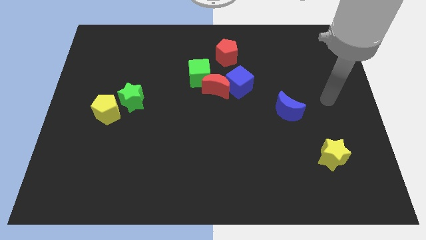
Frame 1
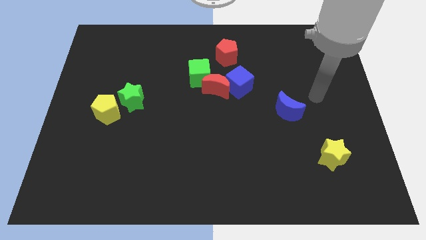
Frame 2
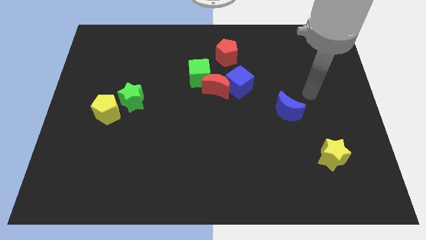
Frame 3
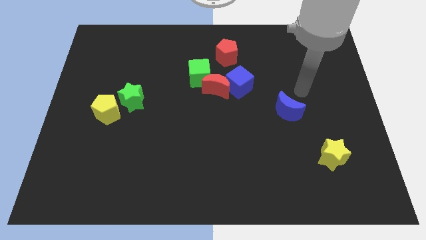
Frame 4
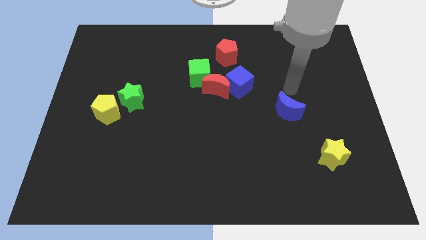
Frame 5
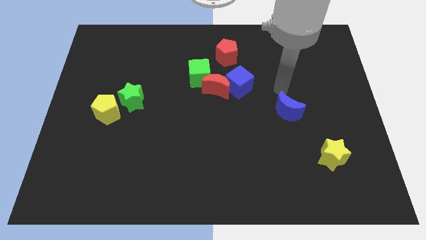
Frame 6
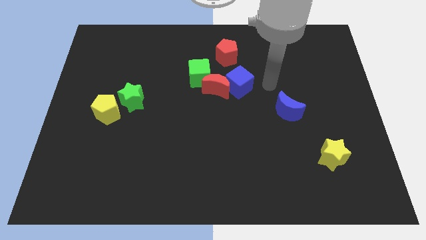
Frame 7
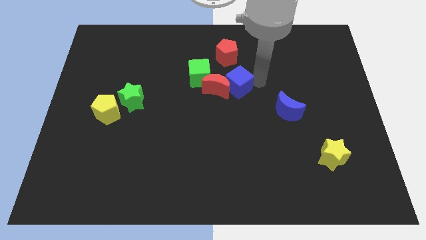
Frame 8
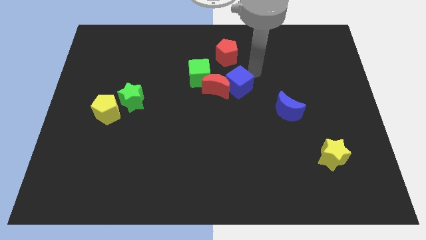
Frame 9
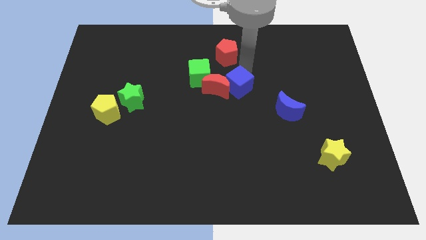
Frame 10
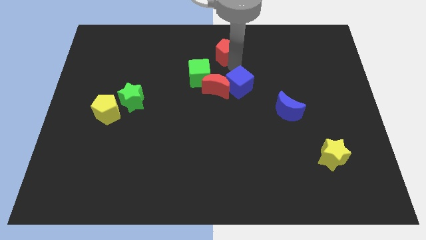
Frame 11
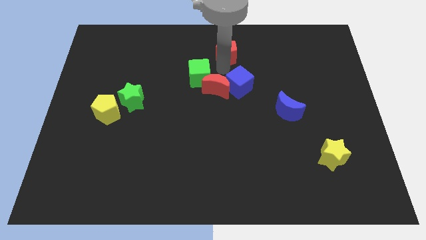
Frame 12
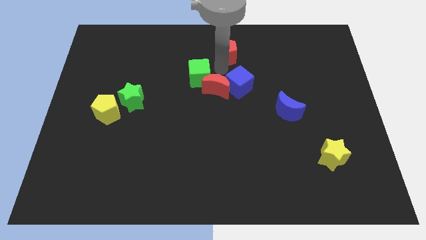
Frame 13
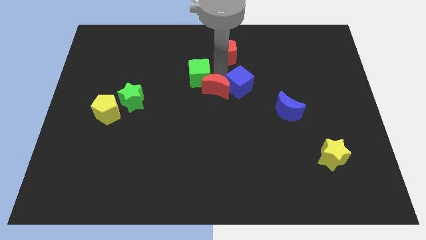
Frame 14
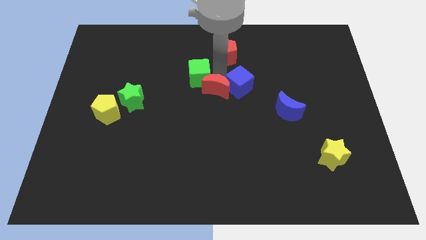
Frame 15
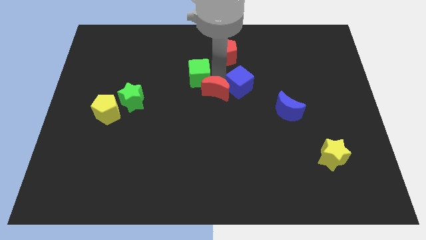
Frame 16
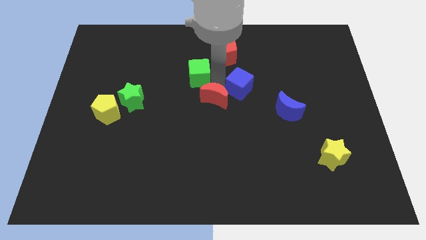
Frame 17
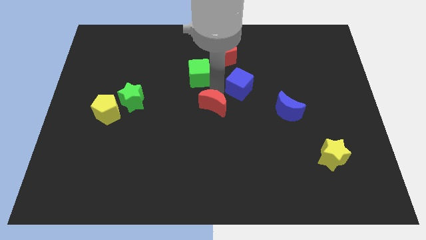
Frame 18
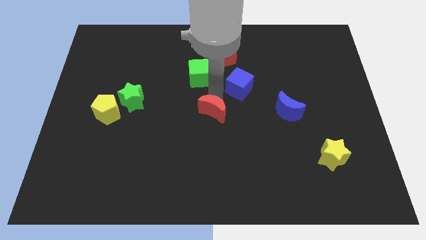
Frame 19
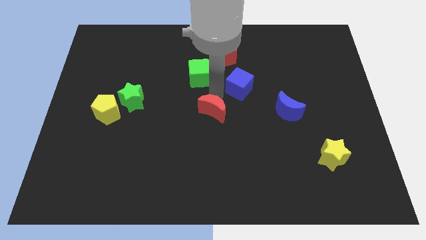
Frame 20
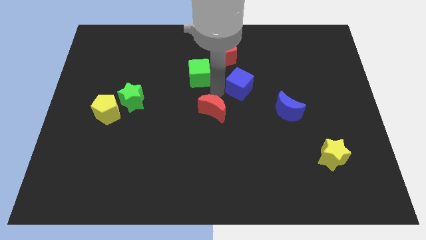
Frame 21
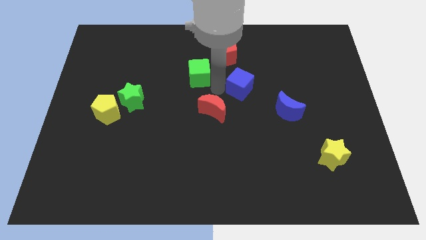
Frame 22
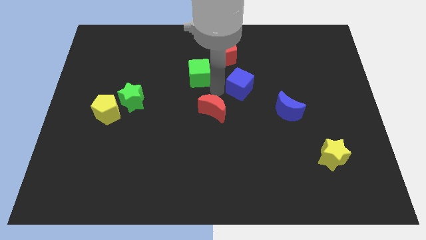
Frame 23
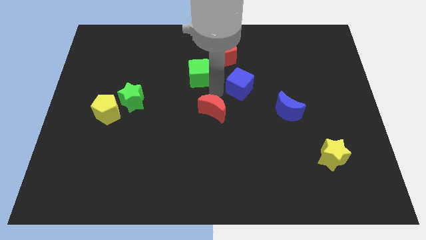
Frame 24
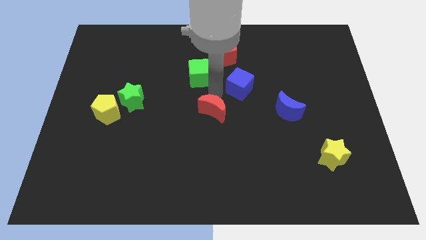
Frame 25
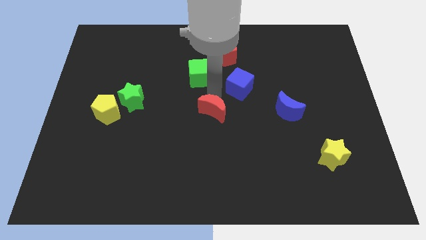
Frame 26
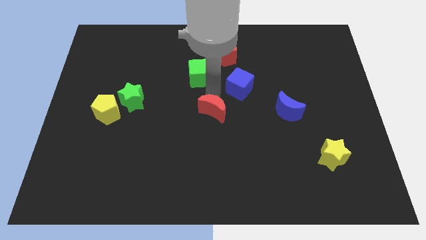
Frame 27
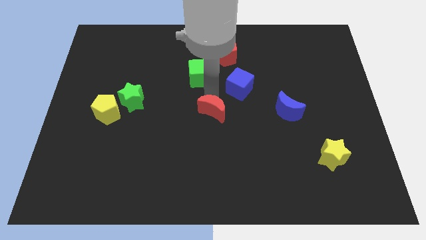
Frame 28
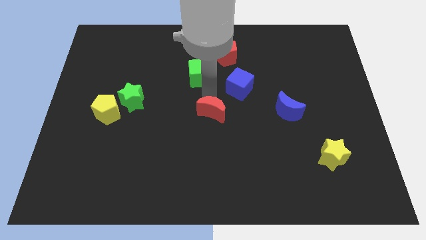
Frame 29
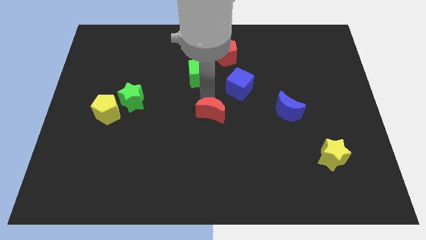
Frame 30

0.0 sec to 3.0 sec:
separate the red moon from the blue cube and green cube

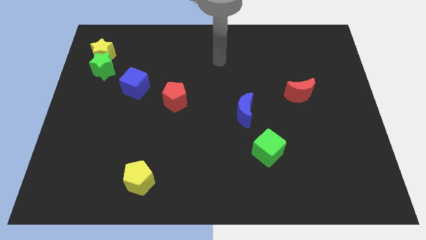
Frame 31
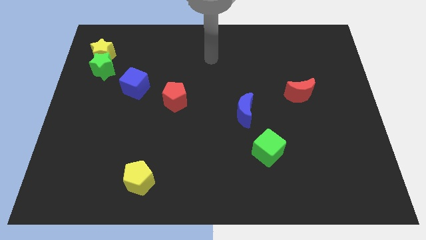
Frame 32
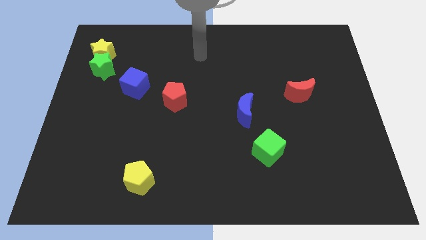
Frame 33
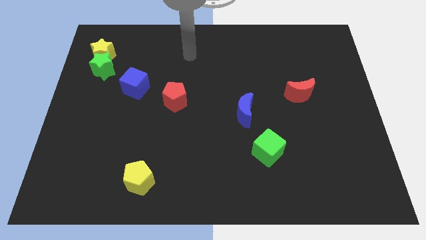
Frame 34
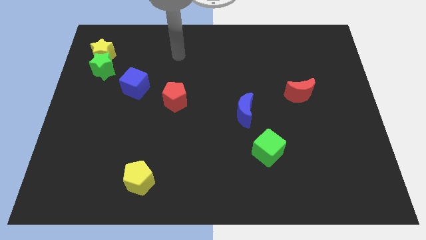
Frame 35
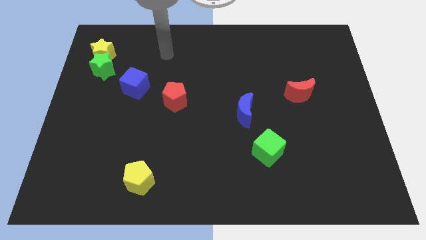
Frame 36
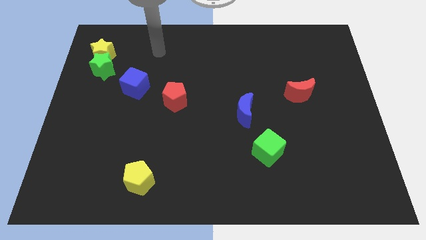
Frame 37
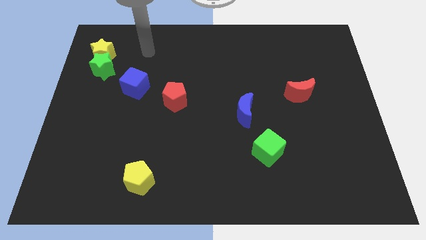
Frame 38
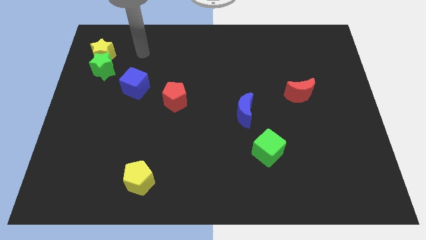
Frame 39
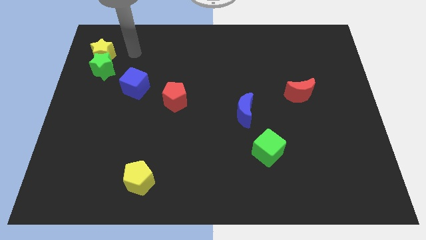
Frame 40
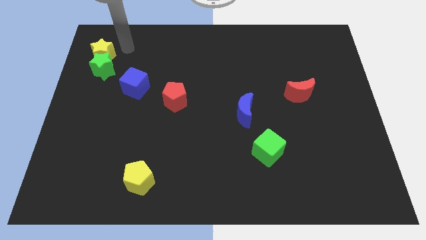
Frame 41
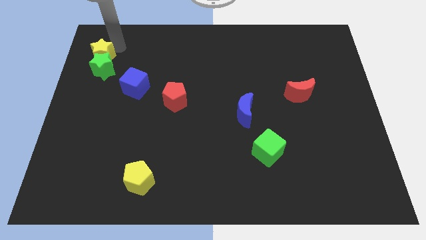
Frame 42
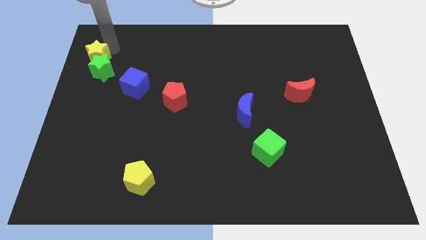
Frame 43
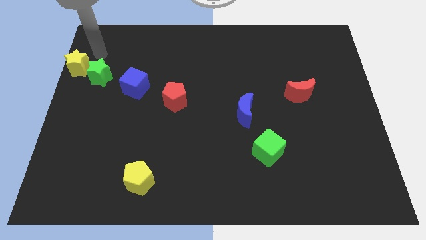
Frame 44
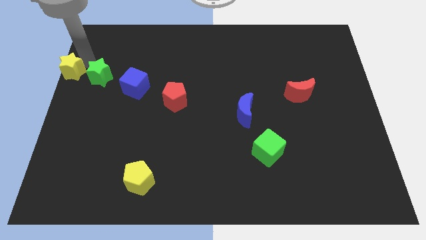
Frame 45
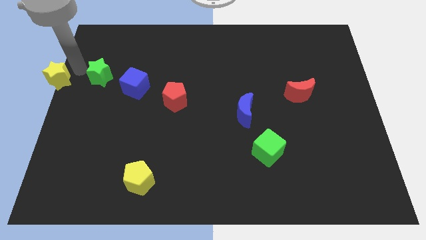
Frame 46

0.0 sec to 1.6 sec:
pull the green star apart from the yellow star

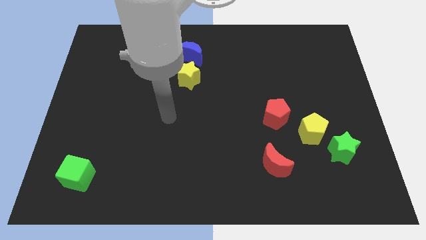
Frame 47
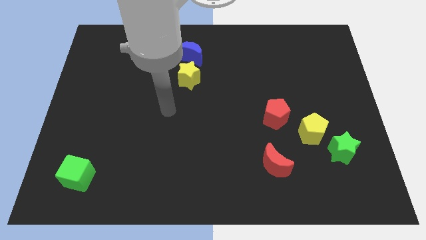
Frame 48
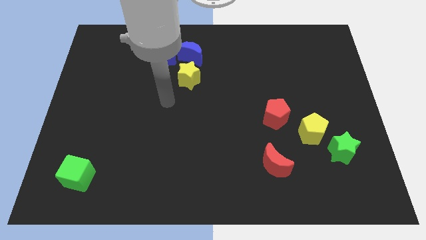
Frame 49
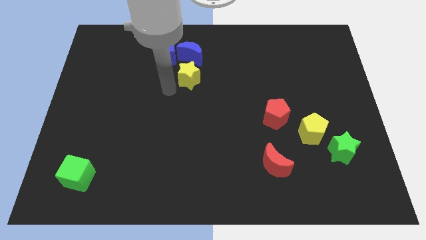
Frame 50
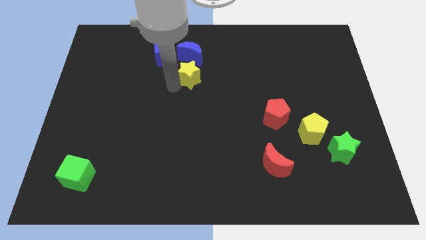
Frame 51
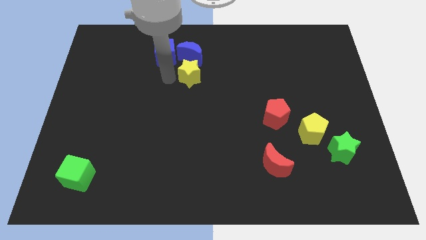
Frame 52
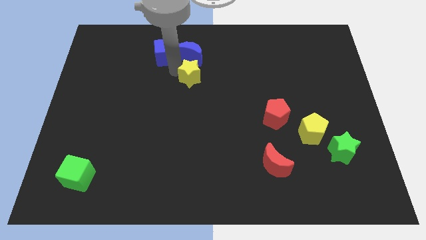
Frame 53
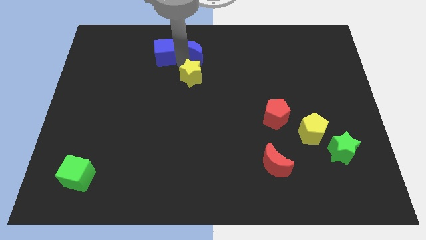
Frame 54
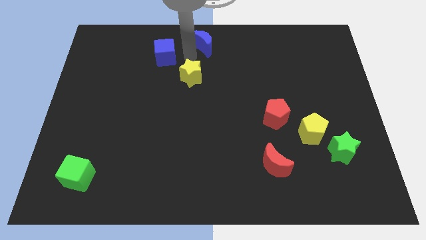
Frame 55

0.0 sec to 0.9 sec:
separate the blue cube from the blue moon

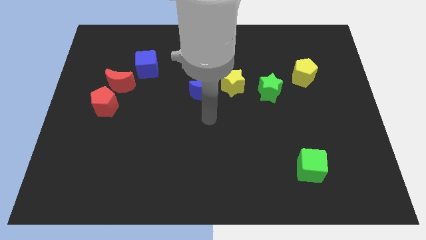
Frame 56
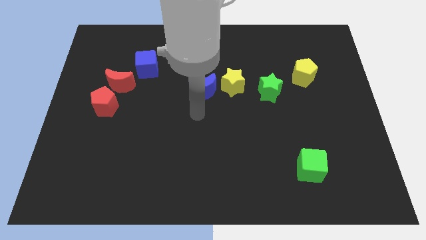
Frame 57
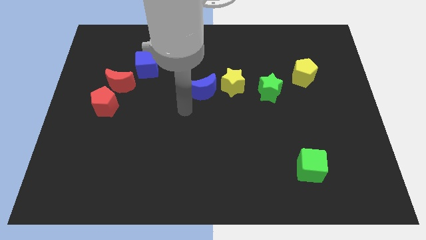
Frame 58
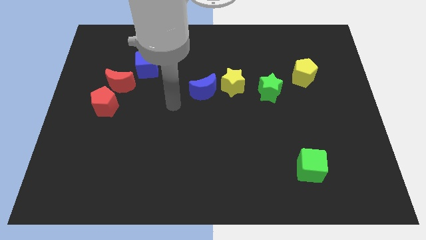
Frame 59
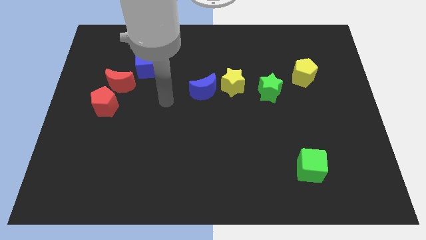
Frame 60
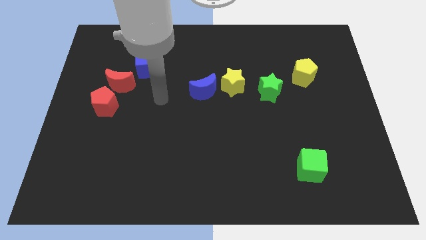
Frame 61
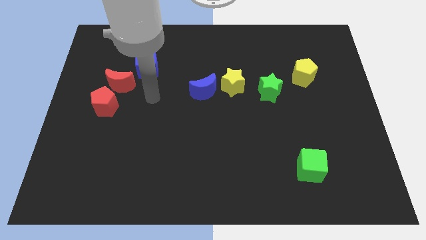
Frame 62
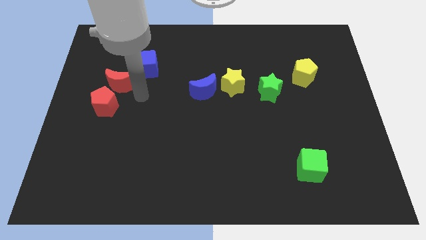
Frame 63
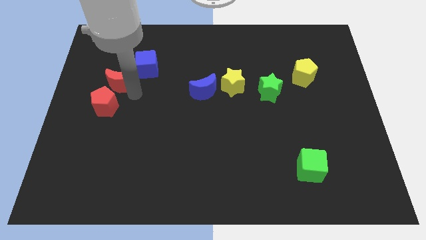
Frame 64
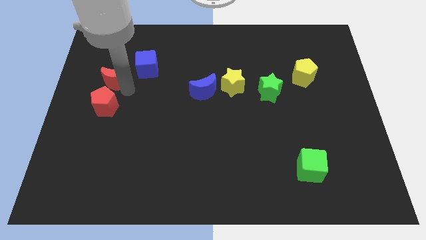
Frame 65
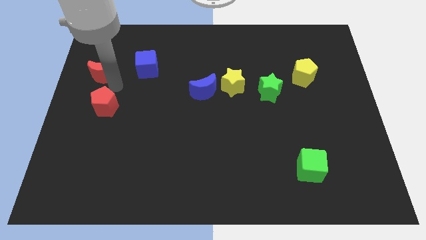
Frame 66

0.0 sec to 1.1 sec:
move the red pentagon away from the red moon

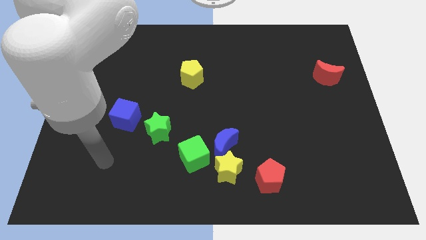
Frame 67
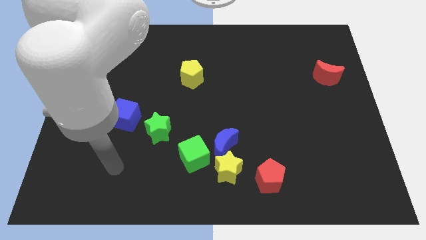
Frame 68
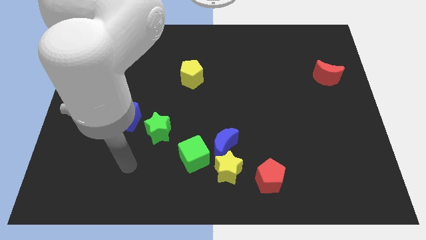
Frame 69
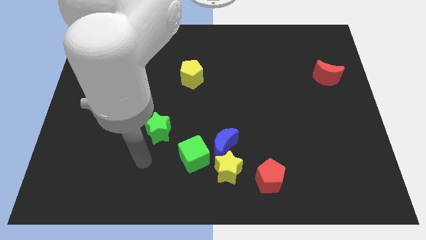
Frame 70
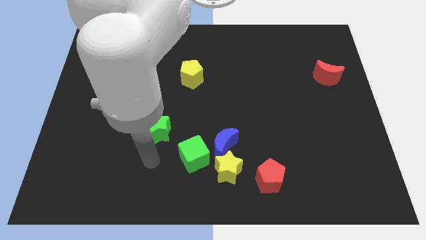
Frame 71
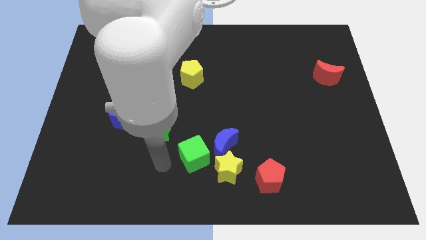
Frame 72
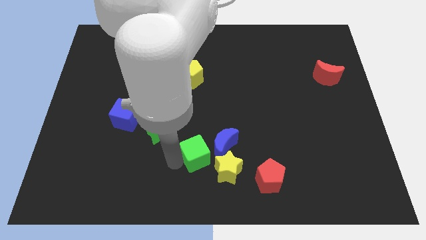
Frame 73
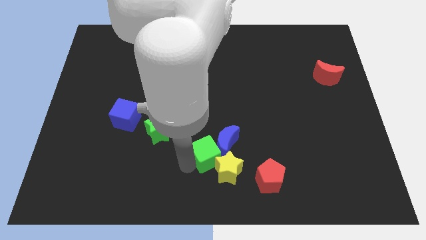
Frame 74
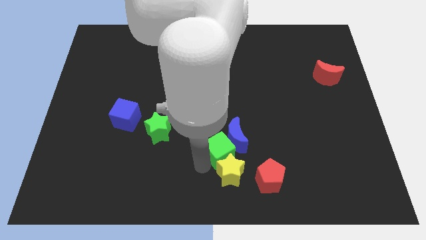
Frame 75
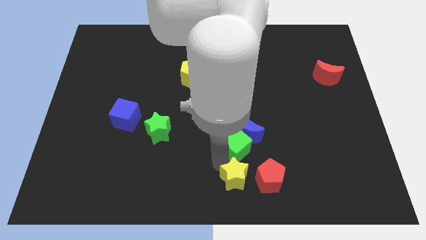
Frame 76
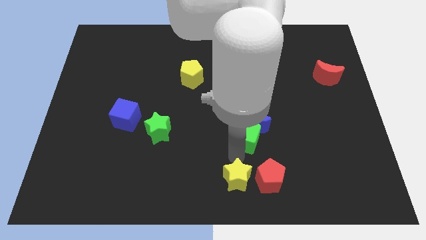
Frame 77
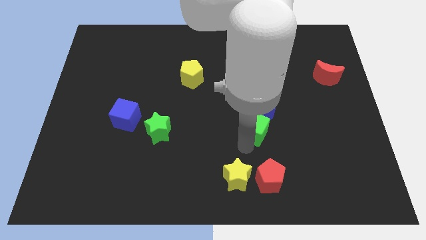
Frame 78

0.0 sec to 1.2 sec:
separate the blue moon from the yellow star and green cube

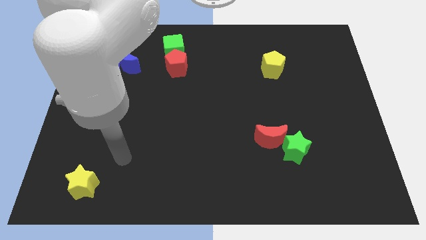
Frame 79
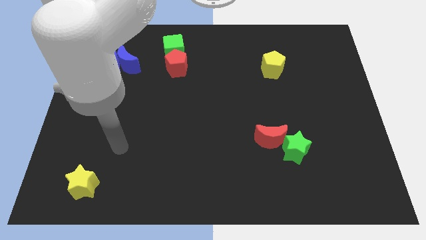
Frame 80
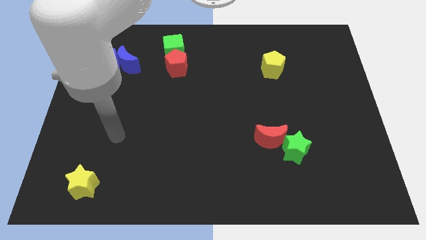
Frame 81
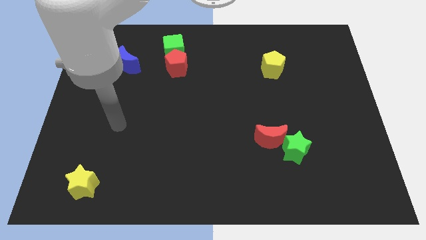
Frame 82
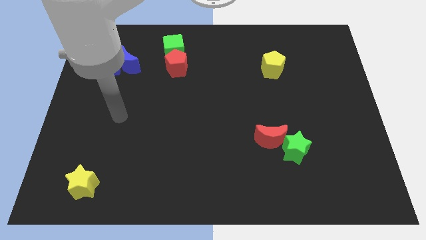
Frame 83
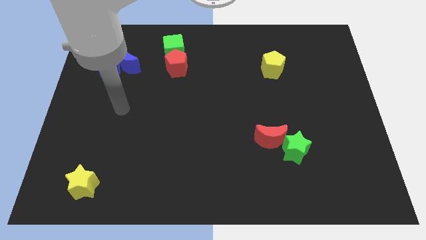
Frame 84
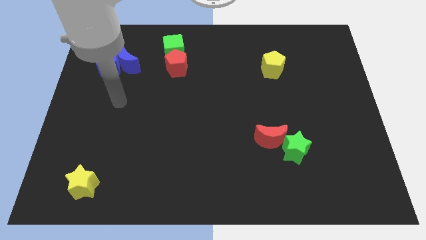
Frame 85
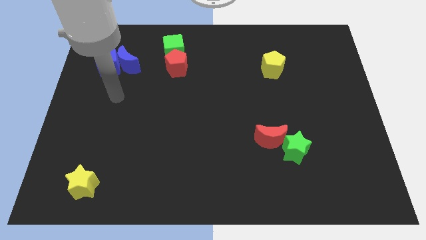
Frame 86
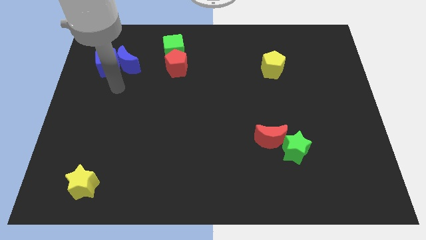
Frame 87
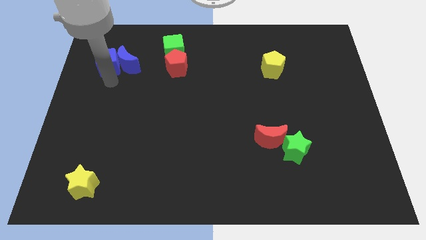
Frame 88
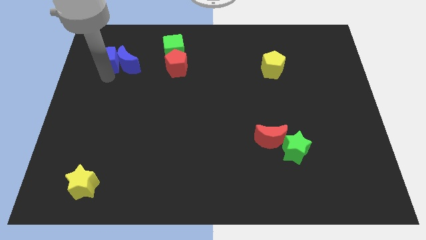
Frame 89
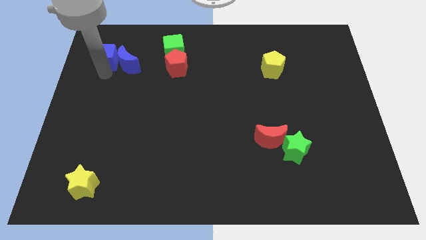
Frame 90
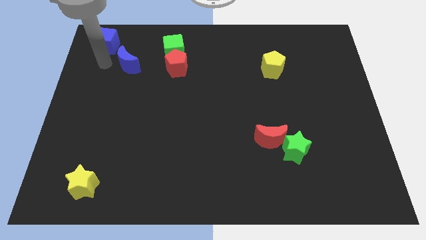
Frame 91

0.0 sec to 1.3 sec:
separate the blue moon from the blue cube

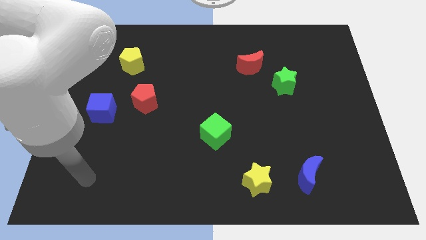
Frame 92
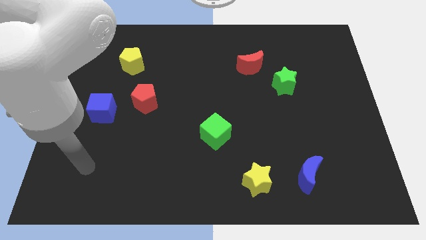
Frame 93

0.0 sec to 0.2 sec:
move the red moon away from the green star

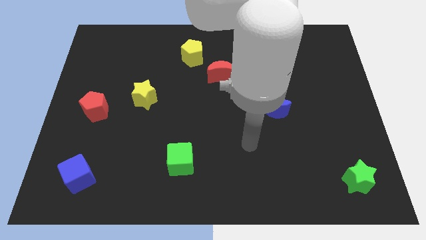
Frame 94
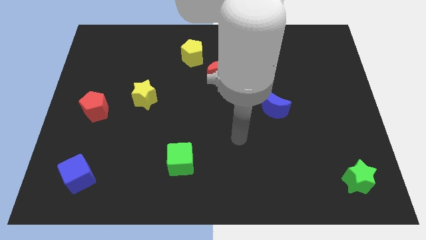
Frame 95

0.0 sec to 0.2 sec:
separate the red moon from the yellow pentagon
